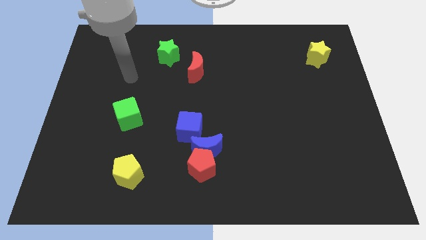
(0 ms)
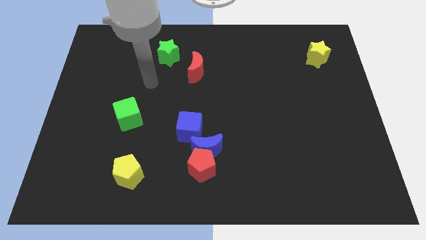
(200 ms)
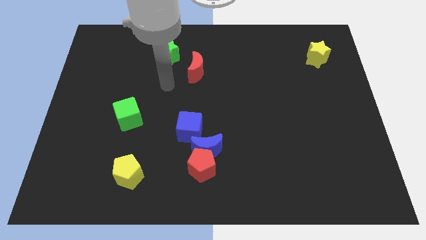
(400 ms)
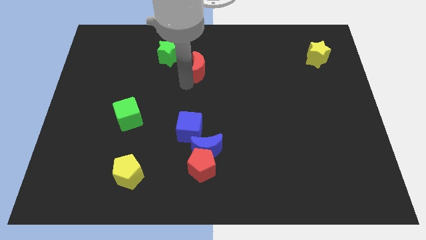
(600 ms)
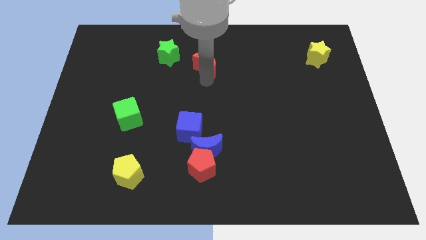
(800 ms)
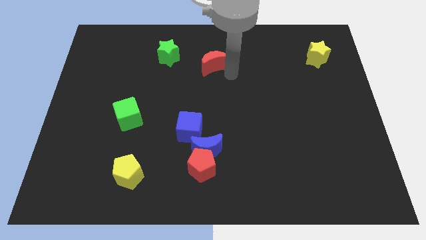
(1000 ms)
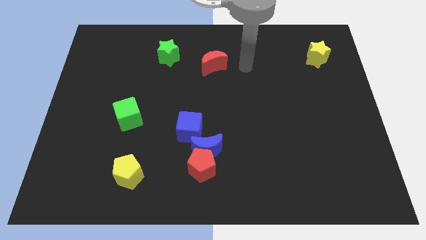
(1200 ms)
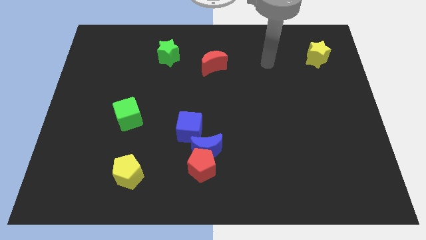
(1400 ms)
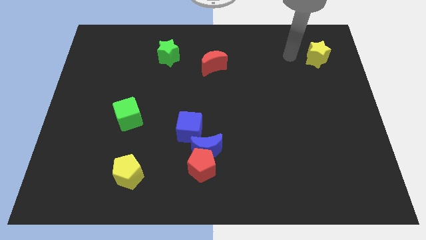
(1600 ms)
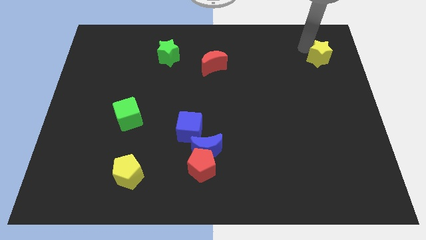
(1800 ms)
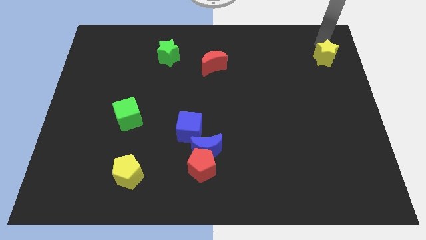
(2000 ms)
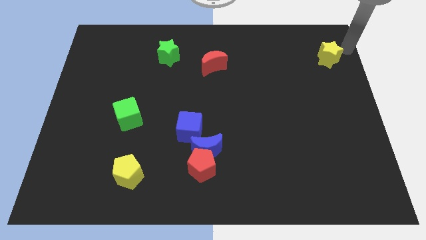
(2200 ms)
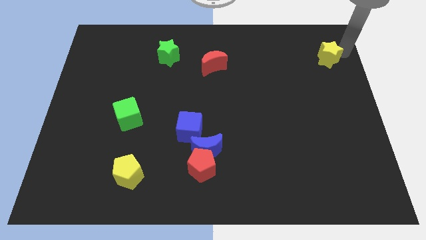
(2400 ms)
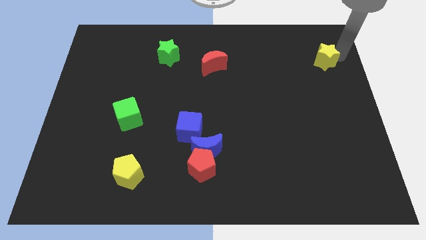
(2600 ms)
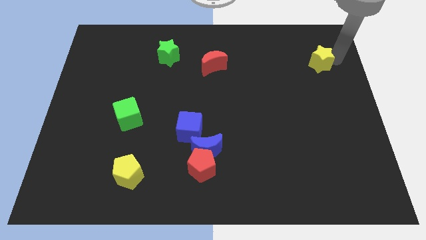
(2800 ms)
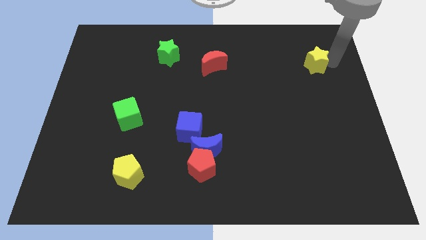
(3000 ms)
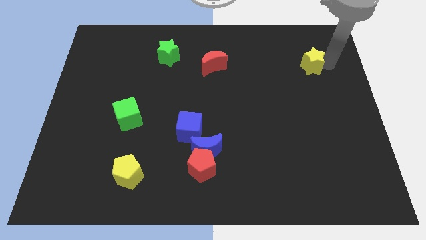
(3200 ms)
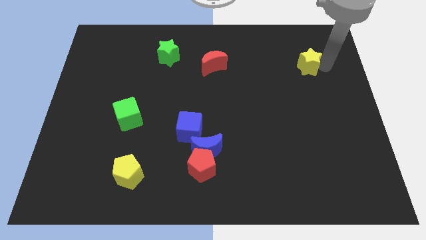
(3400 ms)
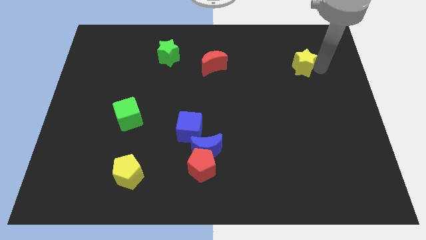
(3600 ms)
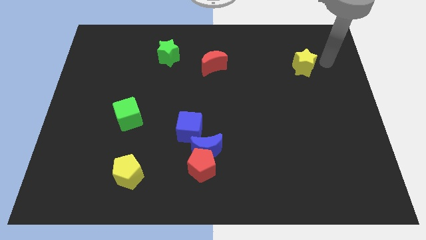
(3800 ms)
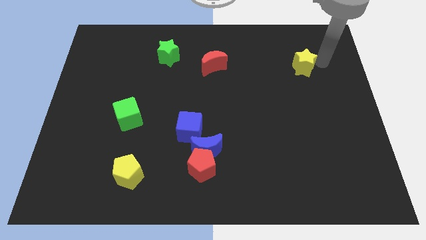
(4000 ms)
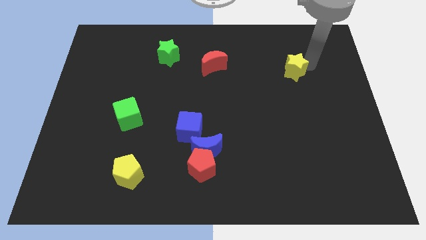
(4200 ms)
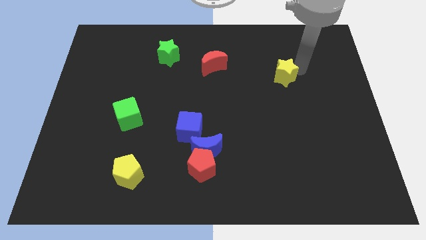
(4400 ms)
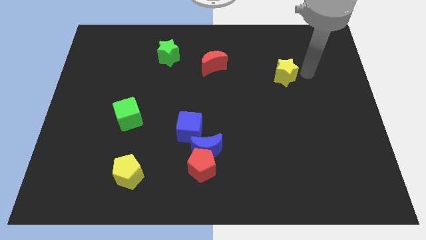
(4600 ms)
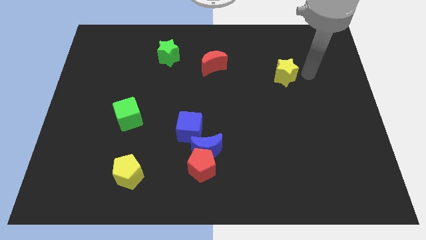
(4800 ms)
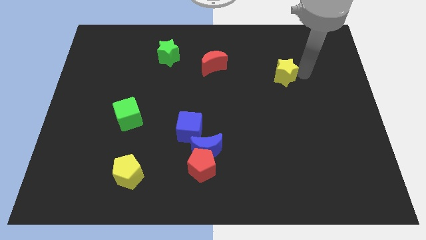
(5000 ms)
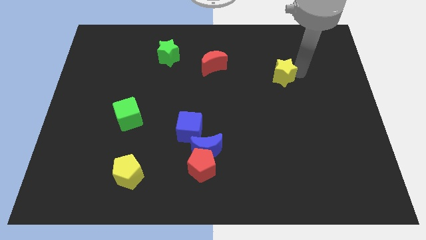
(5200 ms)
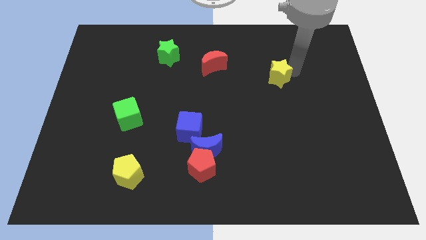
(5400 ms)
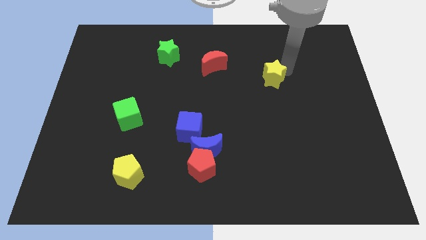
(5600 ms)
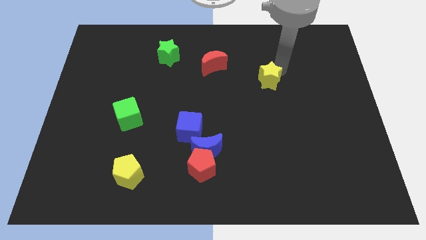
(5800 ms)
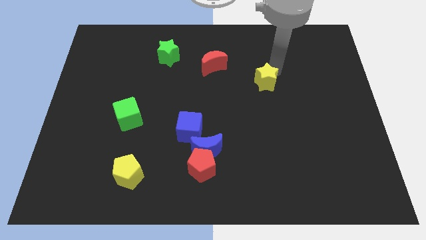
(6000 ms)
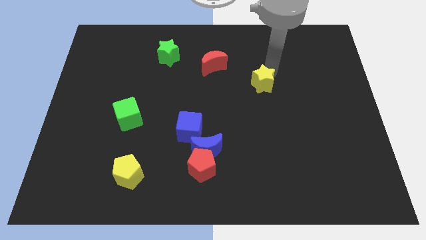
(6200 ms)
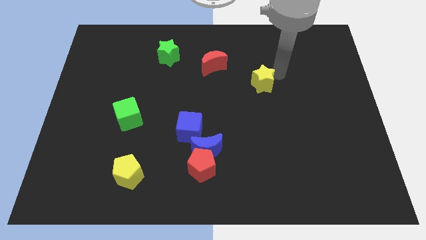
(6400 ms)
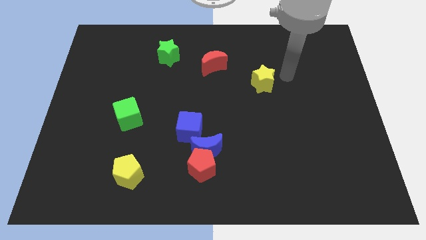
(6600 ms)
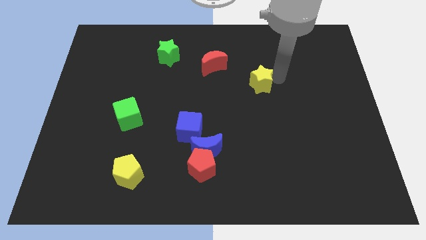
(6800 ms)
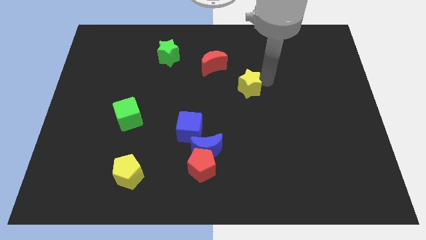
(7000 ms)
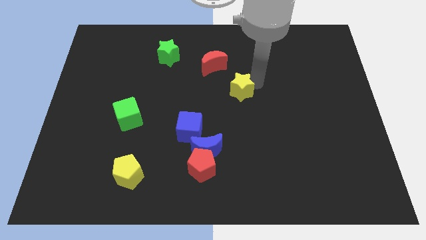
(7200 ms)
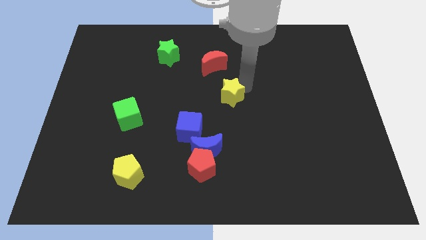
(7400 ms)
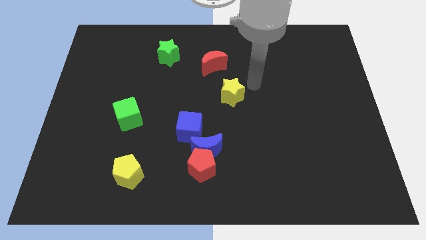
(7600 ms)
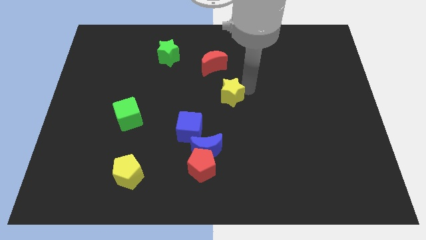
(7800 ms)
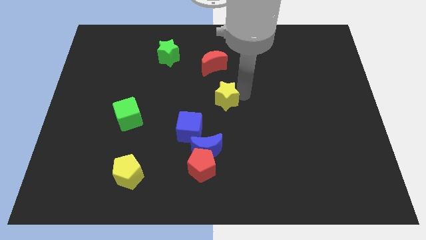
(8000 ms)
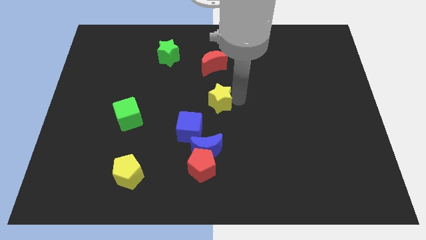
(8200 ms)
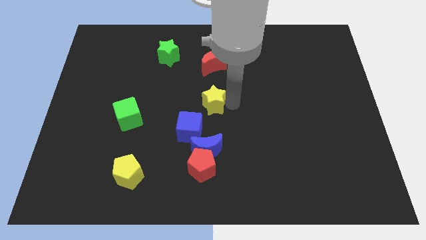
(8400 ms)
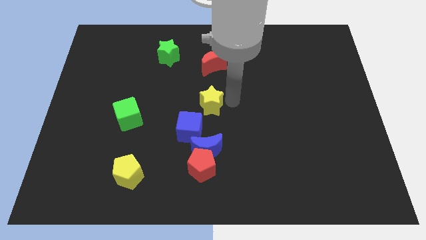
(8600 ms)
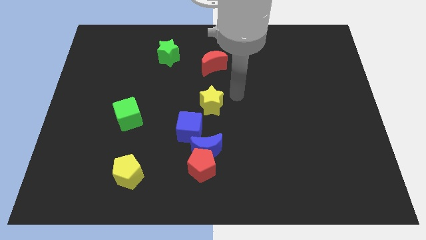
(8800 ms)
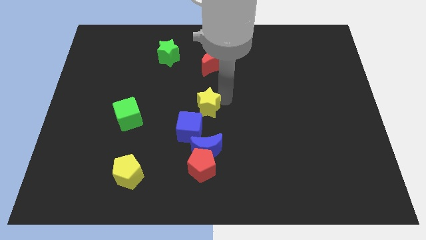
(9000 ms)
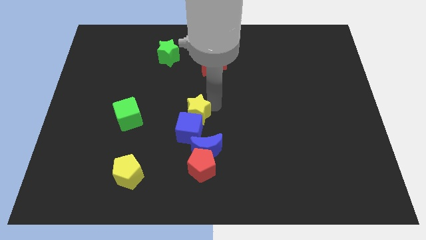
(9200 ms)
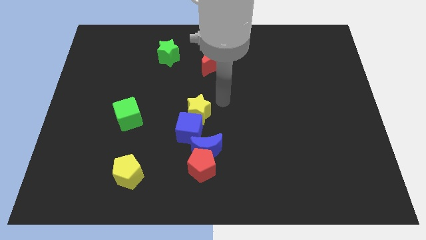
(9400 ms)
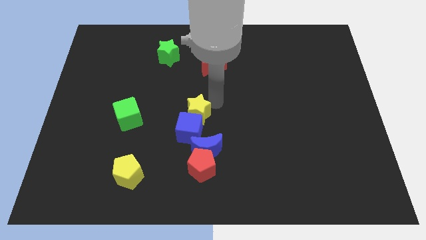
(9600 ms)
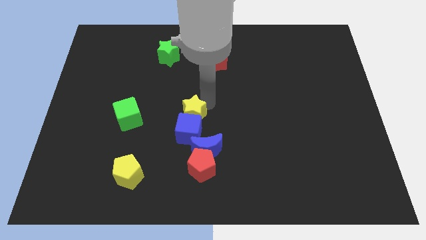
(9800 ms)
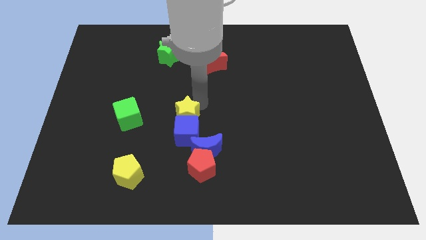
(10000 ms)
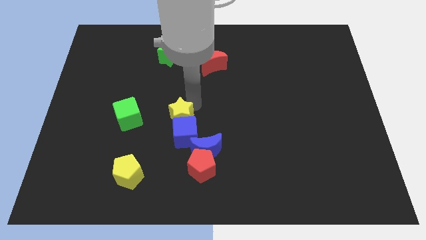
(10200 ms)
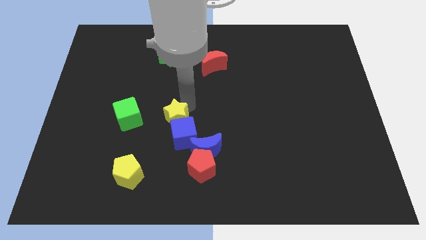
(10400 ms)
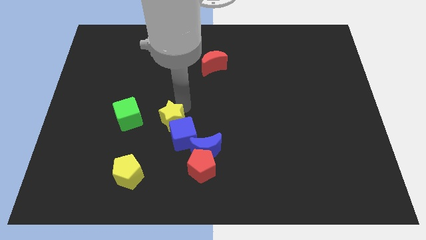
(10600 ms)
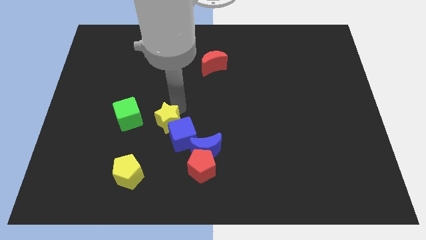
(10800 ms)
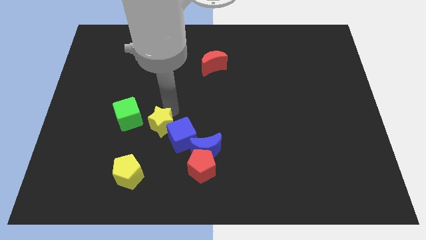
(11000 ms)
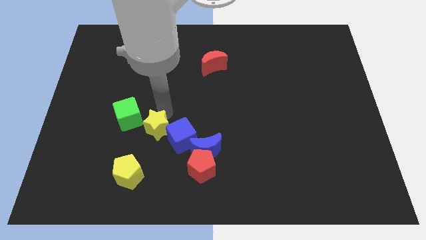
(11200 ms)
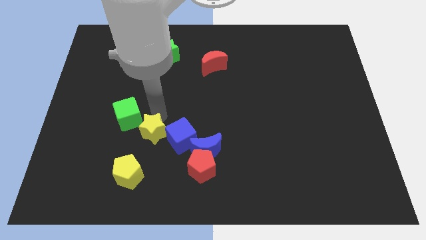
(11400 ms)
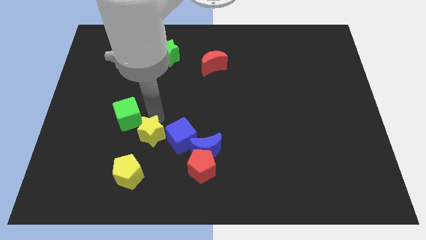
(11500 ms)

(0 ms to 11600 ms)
put the yellow star to the top right side of the yellow pentagon
